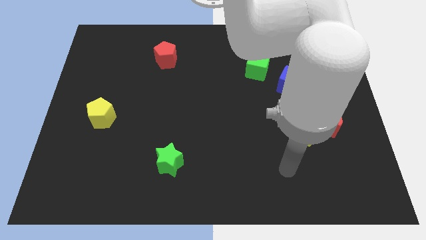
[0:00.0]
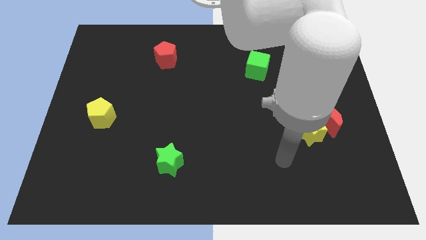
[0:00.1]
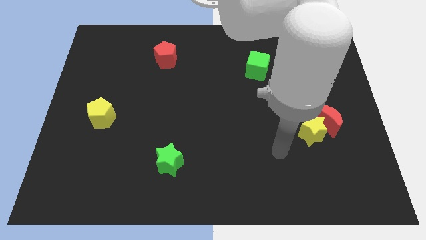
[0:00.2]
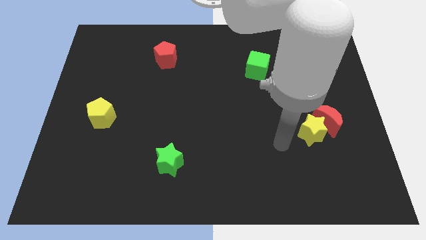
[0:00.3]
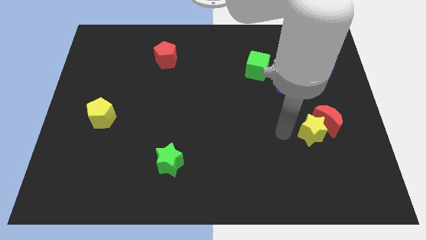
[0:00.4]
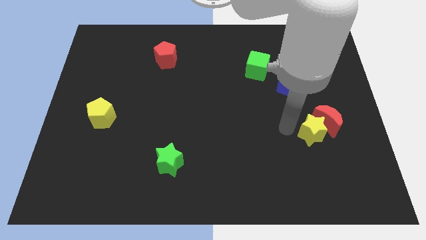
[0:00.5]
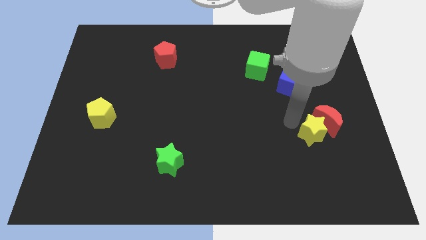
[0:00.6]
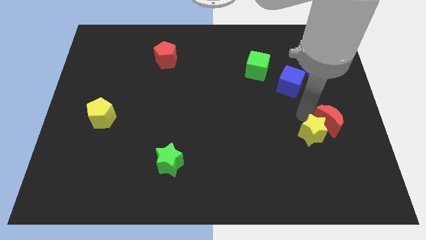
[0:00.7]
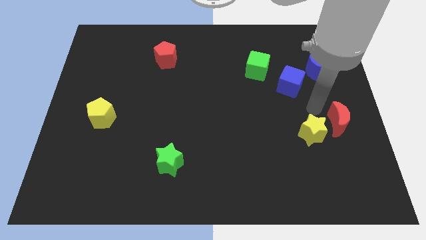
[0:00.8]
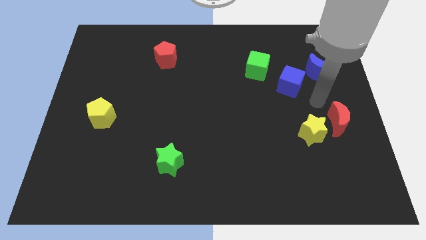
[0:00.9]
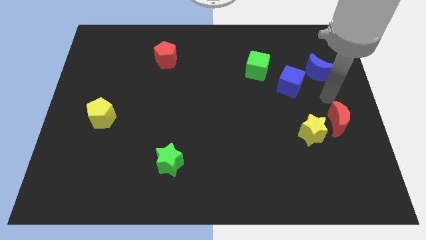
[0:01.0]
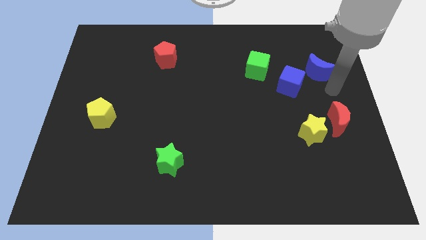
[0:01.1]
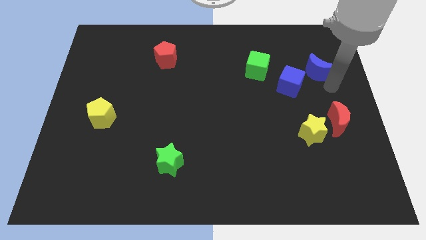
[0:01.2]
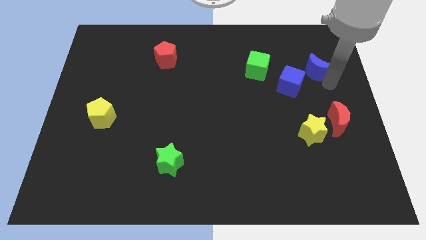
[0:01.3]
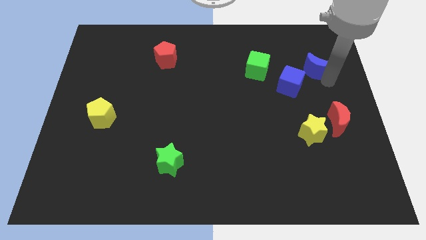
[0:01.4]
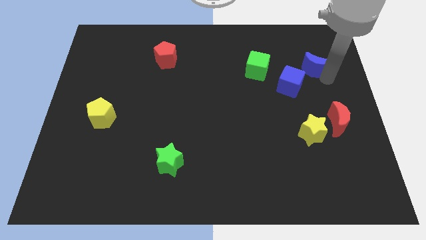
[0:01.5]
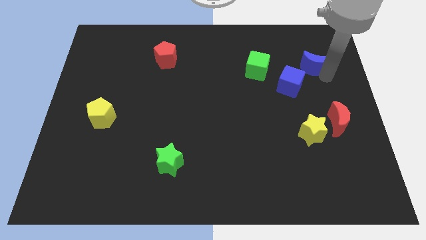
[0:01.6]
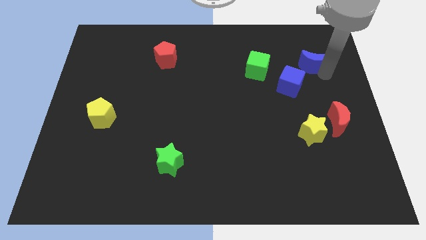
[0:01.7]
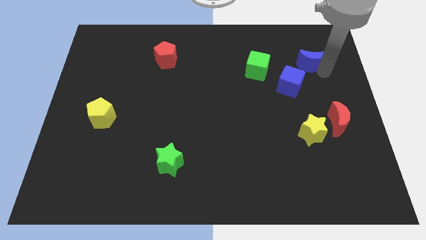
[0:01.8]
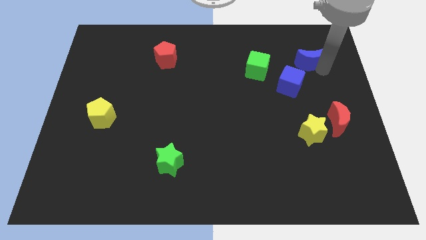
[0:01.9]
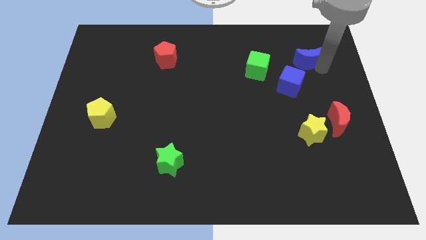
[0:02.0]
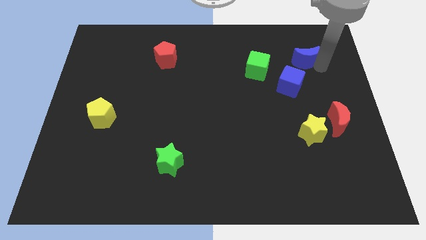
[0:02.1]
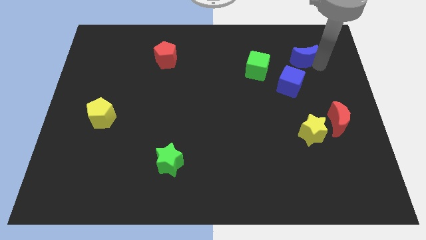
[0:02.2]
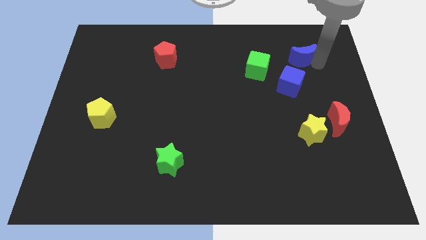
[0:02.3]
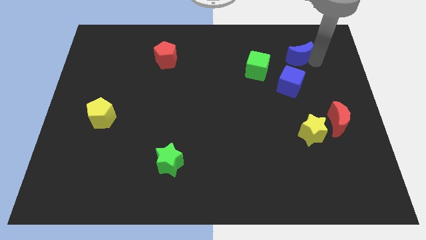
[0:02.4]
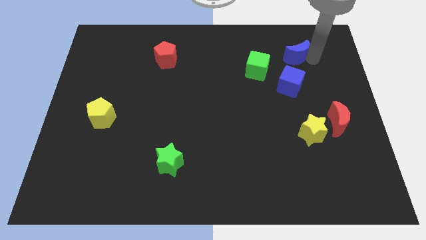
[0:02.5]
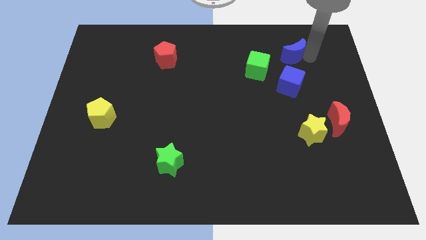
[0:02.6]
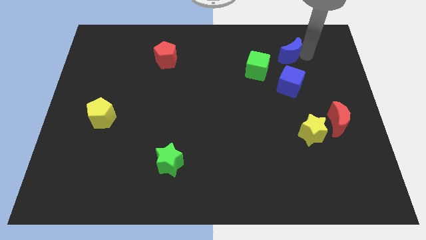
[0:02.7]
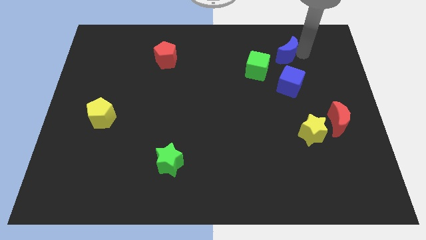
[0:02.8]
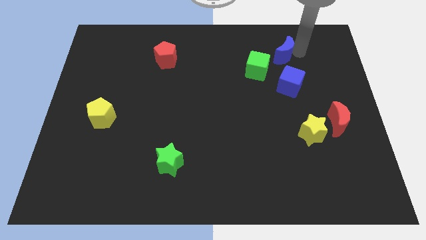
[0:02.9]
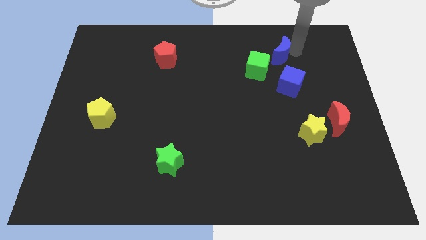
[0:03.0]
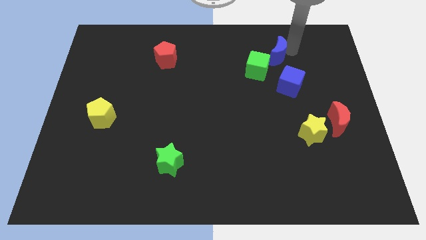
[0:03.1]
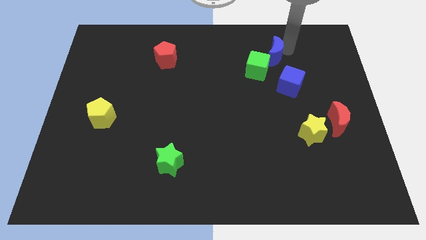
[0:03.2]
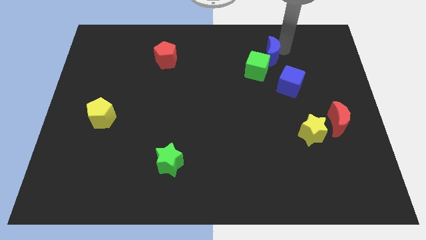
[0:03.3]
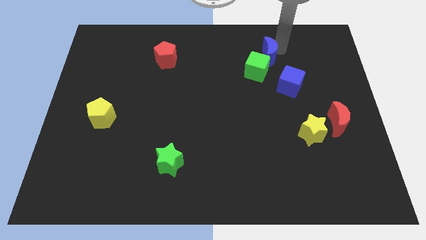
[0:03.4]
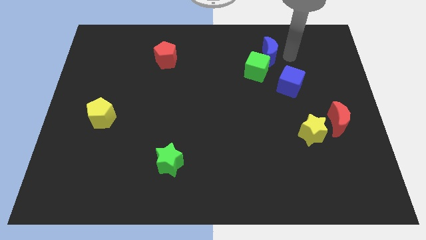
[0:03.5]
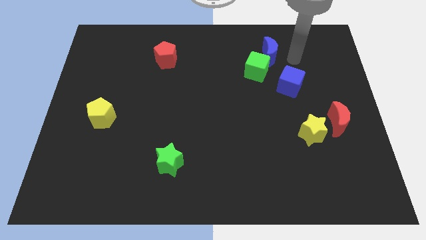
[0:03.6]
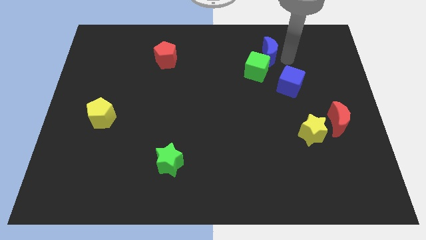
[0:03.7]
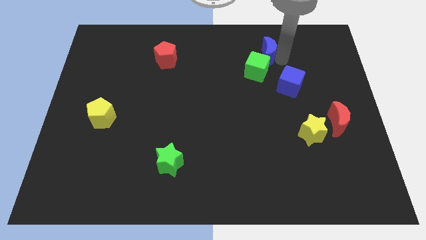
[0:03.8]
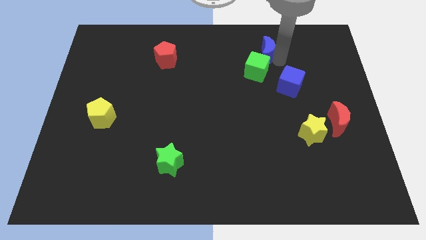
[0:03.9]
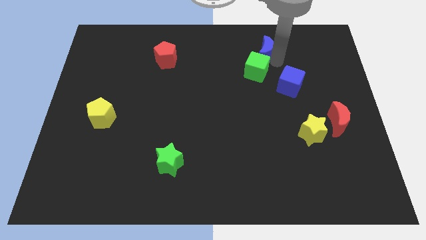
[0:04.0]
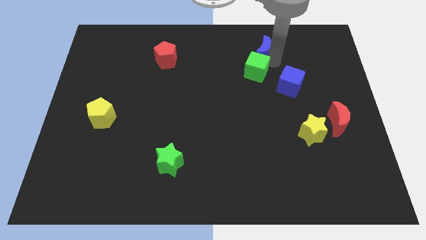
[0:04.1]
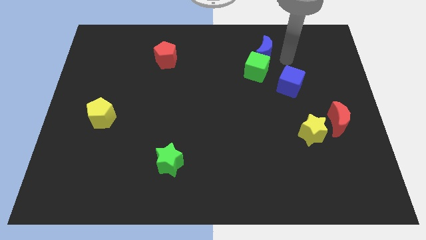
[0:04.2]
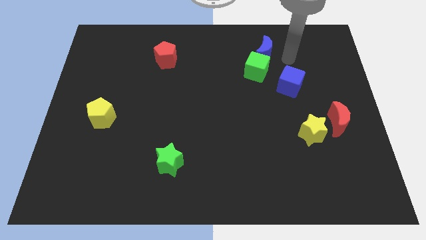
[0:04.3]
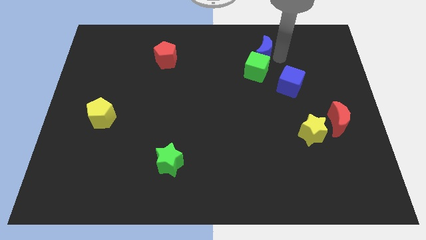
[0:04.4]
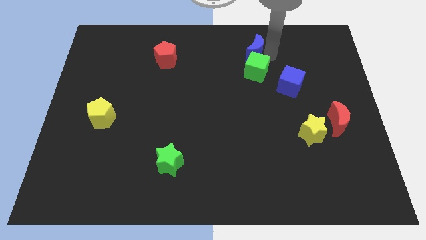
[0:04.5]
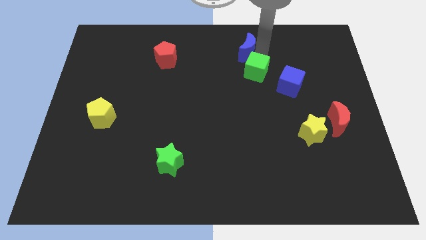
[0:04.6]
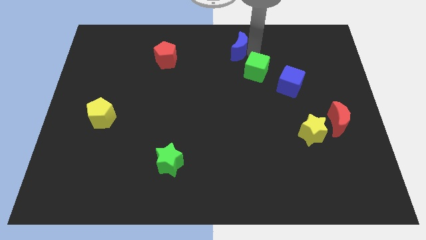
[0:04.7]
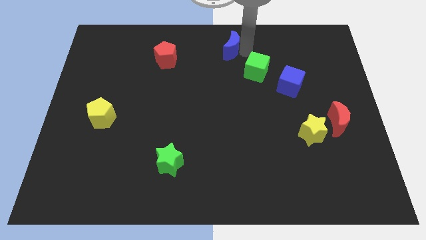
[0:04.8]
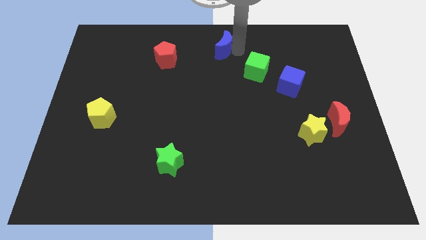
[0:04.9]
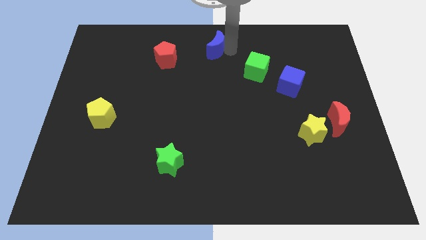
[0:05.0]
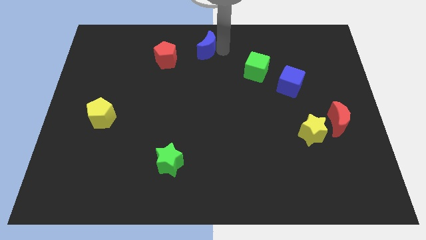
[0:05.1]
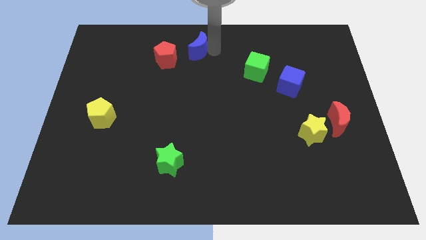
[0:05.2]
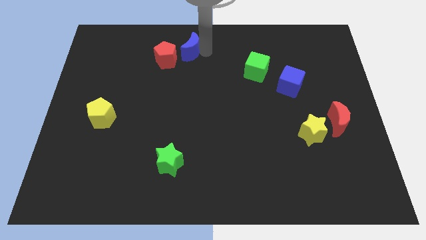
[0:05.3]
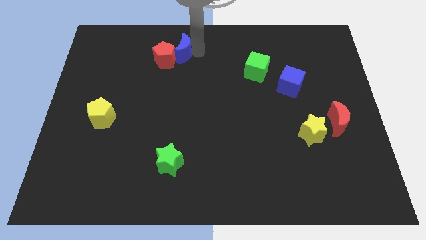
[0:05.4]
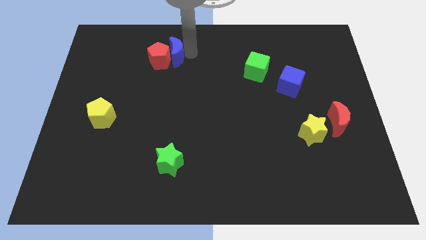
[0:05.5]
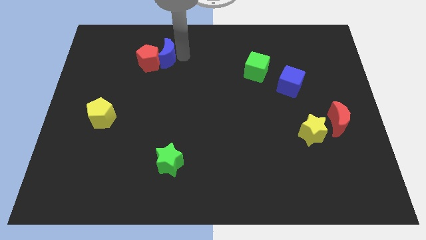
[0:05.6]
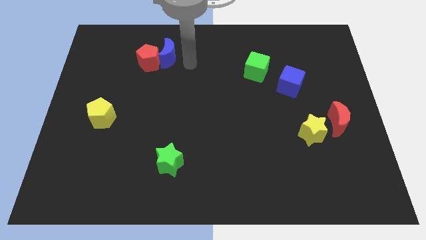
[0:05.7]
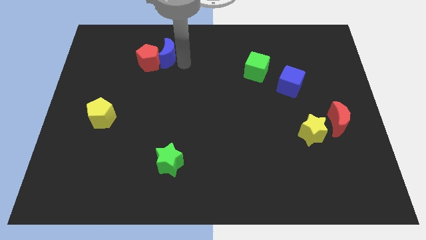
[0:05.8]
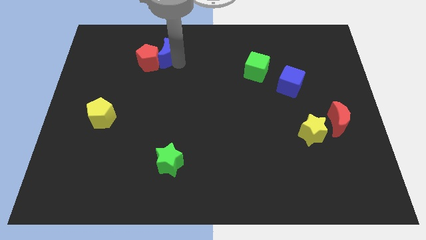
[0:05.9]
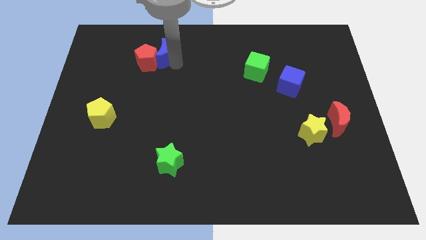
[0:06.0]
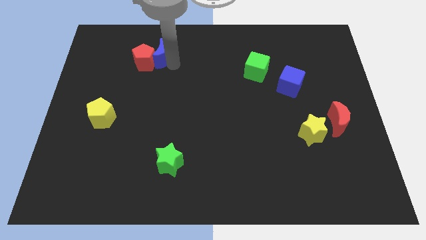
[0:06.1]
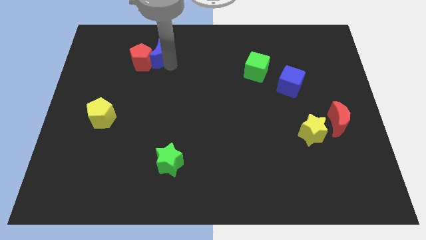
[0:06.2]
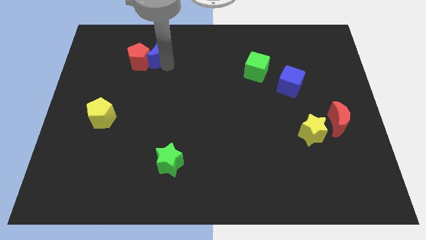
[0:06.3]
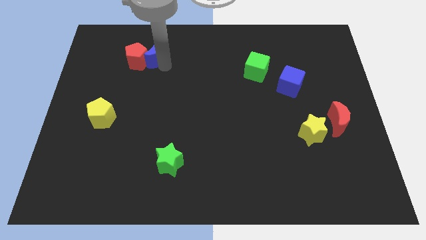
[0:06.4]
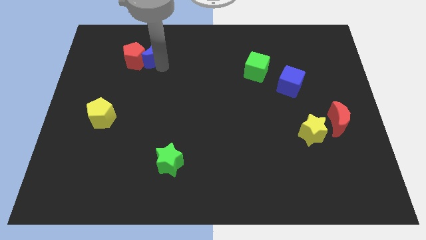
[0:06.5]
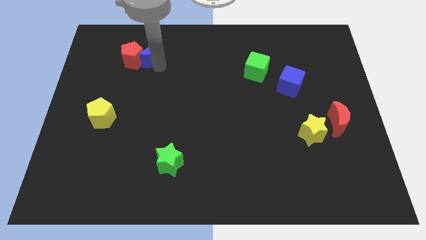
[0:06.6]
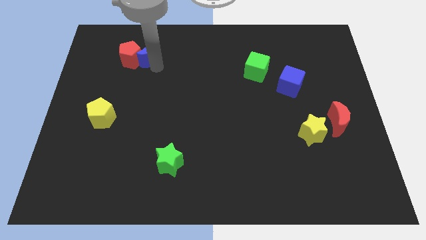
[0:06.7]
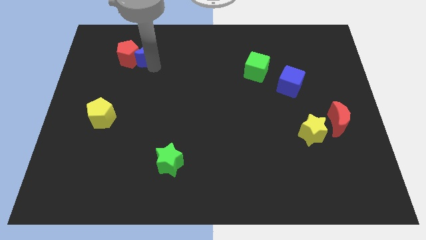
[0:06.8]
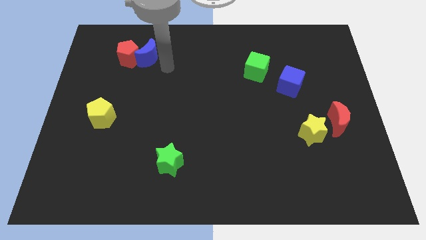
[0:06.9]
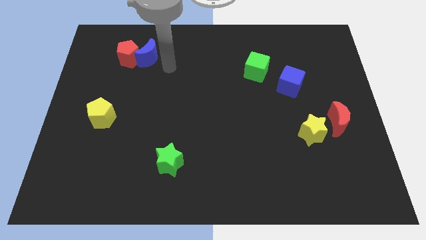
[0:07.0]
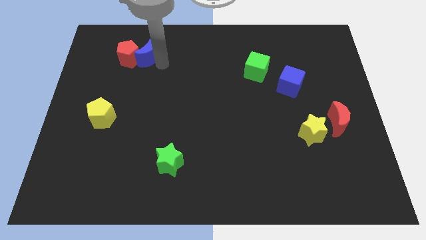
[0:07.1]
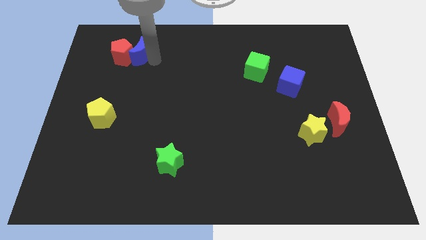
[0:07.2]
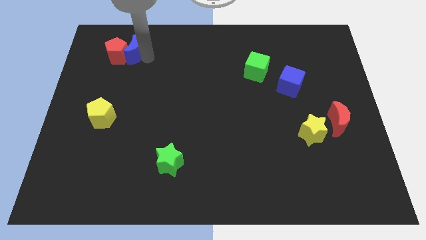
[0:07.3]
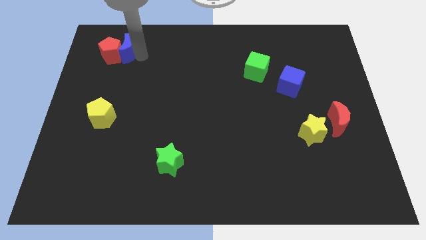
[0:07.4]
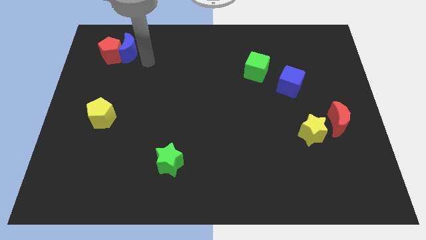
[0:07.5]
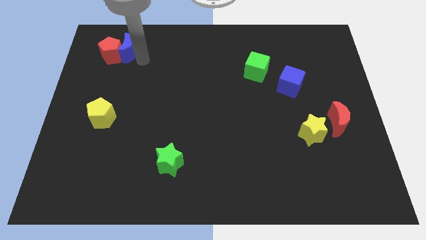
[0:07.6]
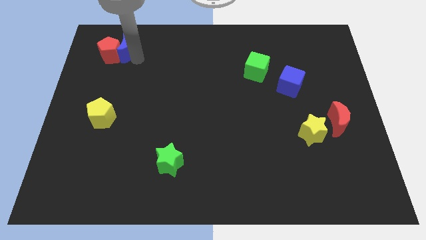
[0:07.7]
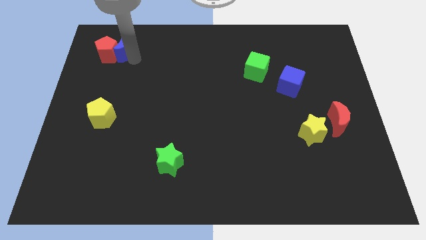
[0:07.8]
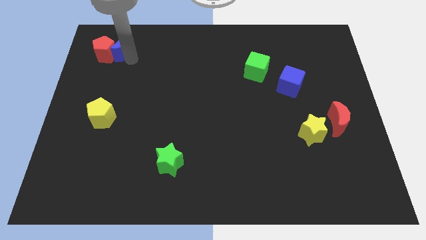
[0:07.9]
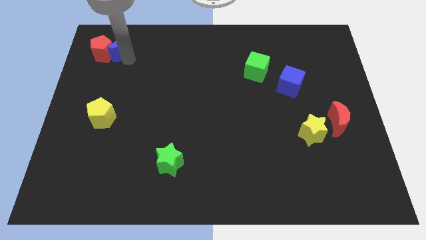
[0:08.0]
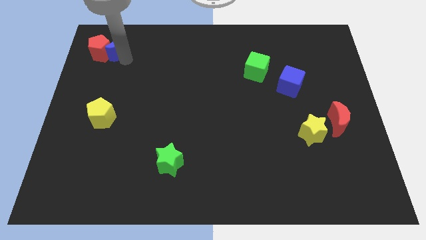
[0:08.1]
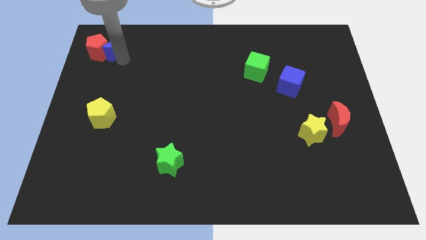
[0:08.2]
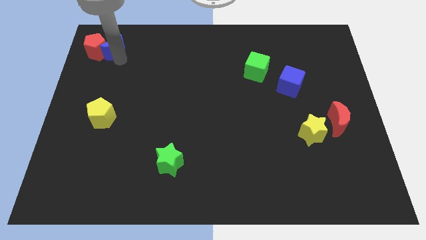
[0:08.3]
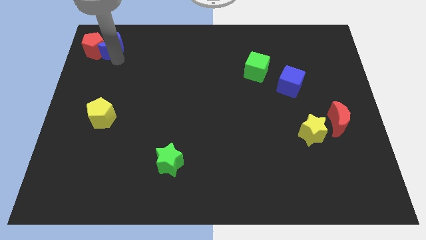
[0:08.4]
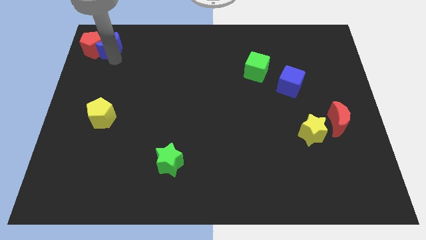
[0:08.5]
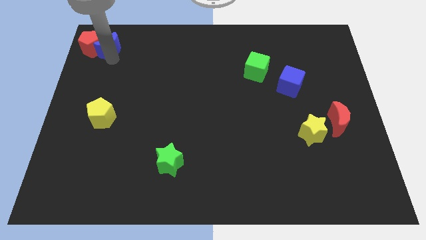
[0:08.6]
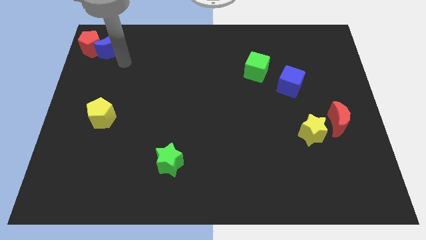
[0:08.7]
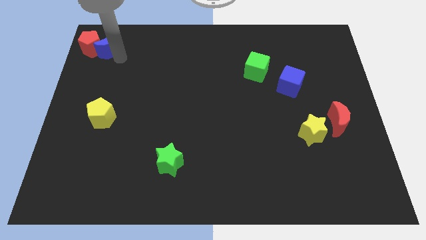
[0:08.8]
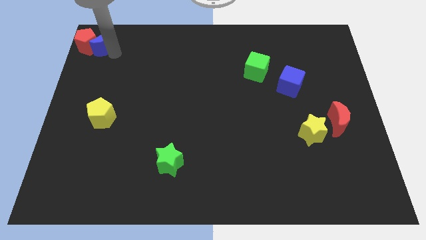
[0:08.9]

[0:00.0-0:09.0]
move the blue moon to the upper left corner
